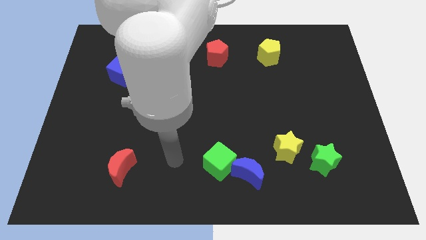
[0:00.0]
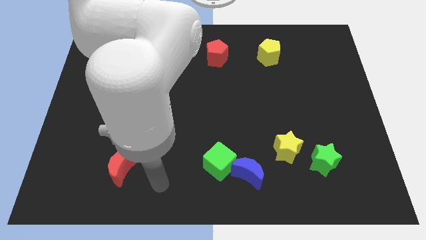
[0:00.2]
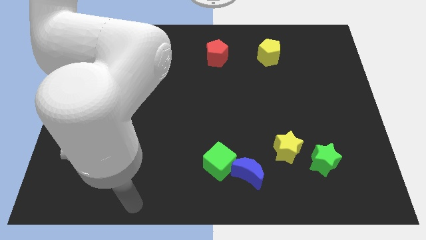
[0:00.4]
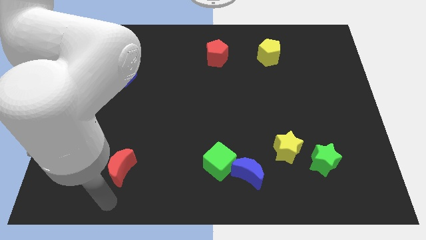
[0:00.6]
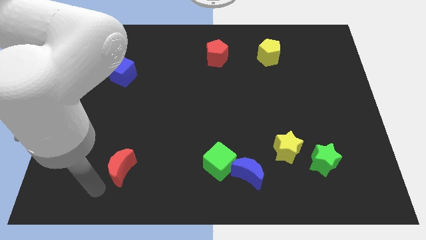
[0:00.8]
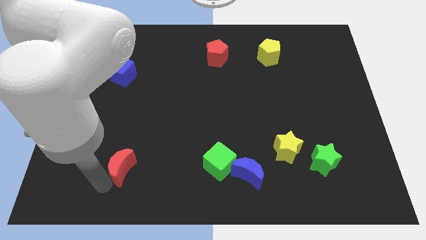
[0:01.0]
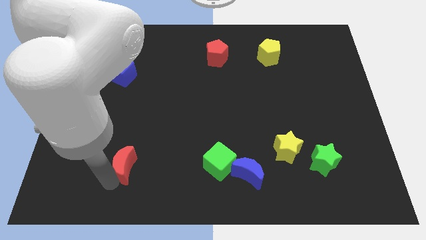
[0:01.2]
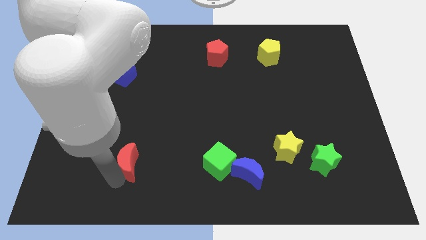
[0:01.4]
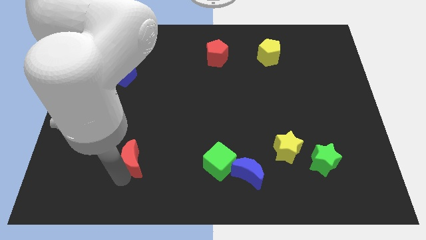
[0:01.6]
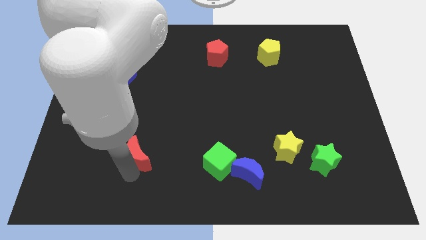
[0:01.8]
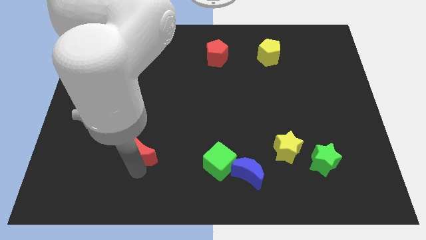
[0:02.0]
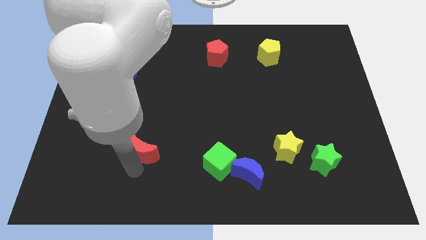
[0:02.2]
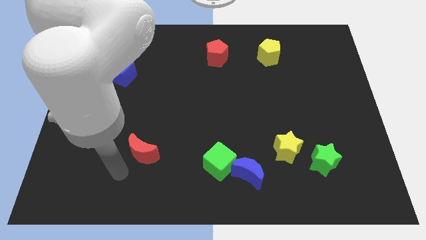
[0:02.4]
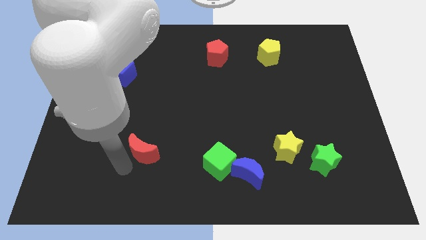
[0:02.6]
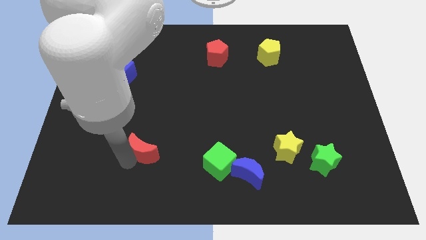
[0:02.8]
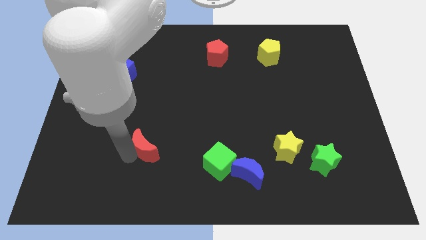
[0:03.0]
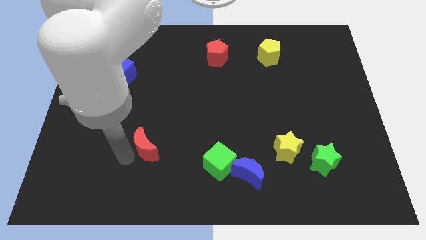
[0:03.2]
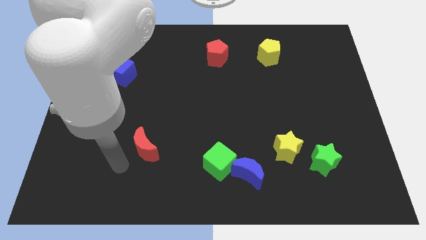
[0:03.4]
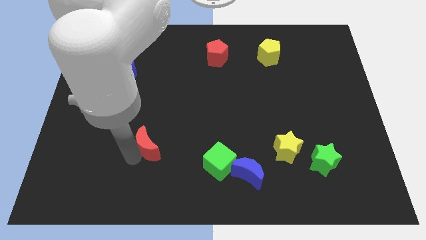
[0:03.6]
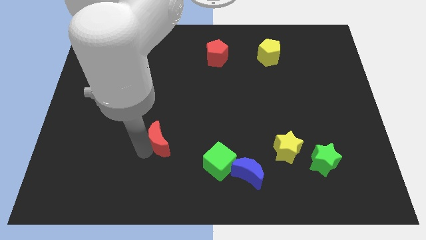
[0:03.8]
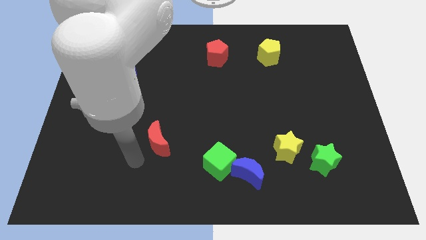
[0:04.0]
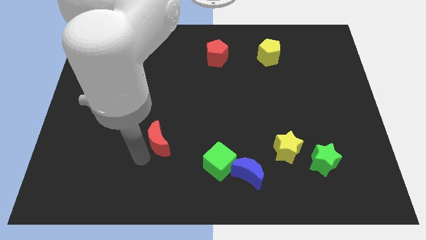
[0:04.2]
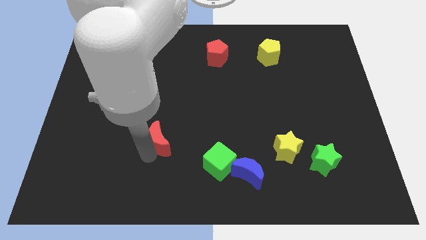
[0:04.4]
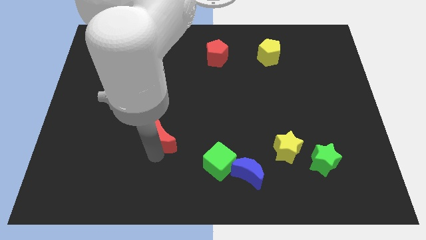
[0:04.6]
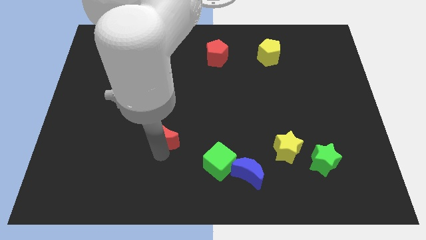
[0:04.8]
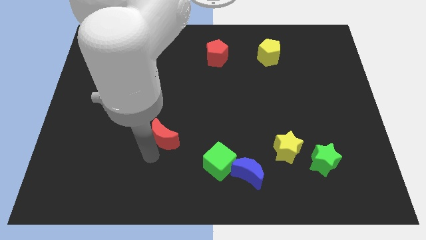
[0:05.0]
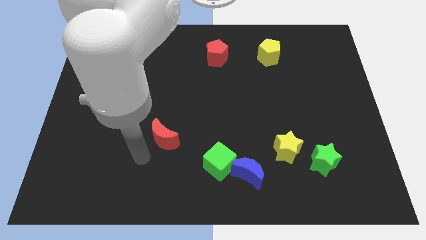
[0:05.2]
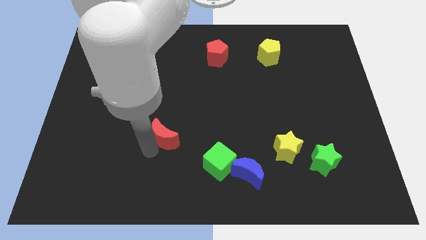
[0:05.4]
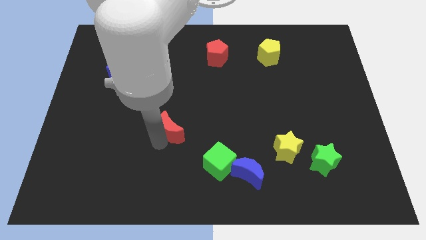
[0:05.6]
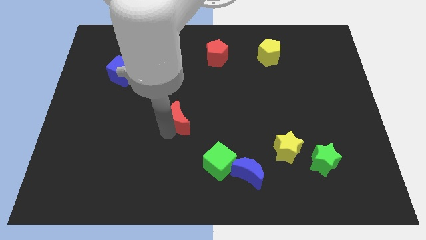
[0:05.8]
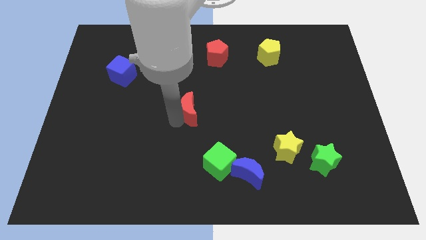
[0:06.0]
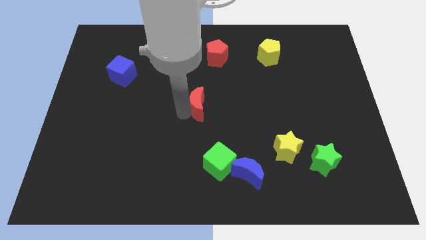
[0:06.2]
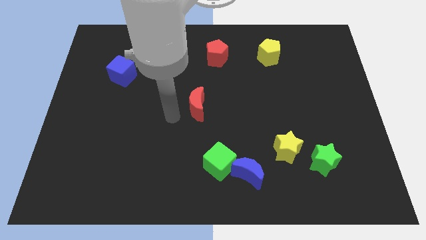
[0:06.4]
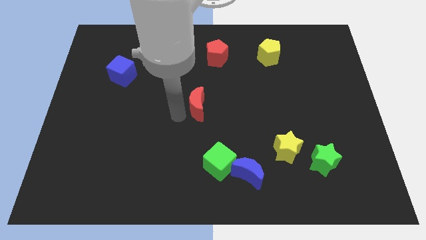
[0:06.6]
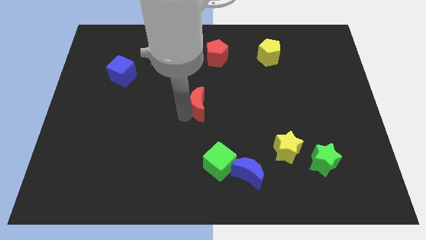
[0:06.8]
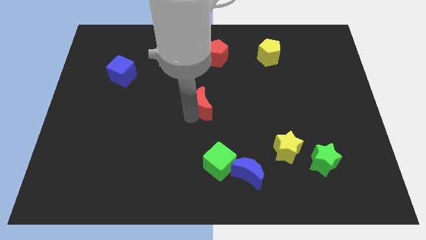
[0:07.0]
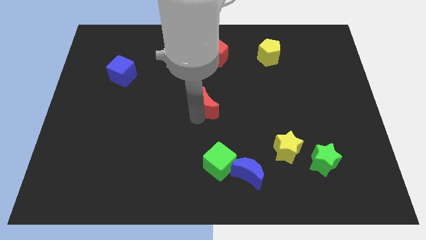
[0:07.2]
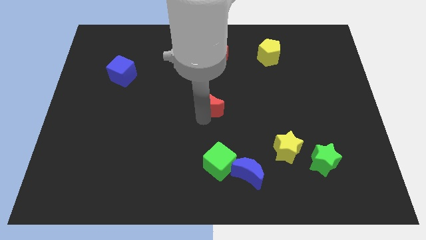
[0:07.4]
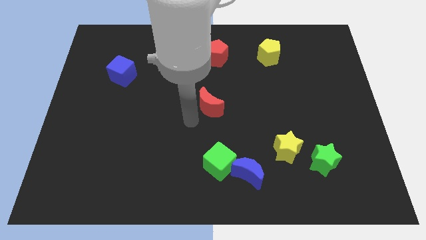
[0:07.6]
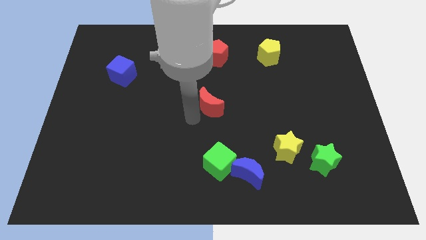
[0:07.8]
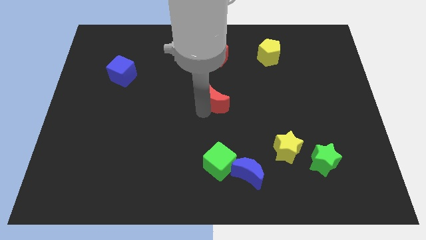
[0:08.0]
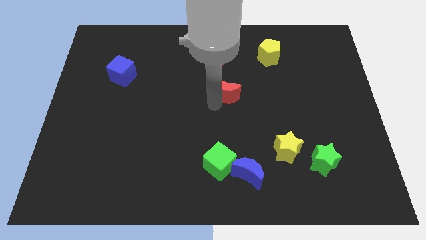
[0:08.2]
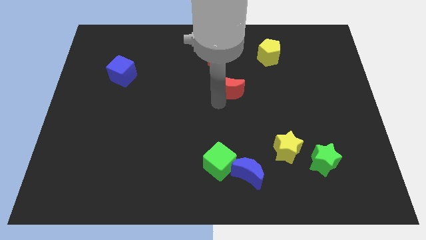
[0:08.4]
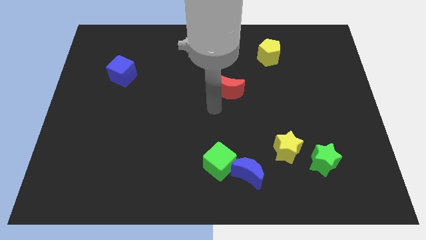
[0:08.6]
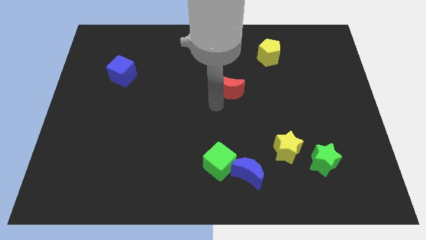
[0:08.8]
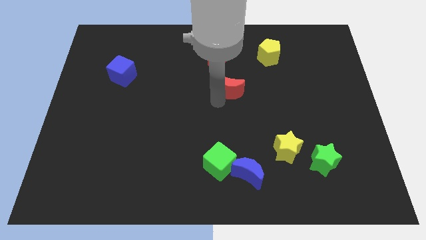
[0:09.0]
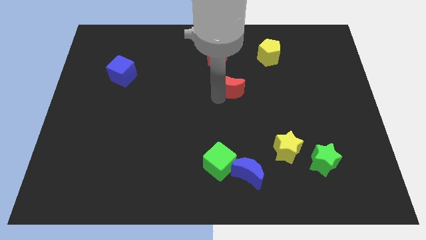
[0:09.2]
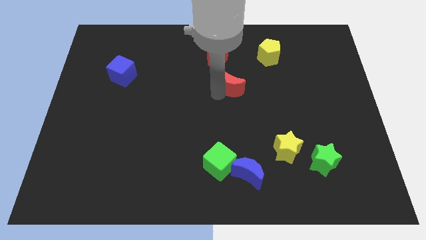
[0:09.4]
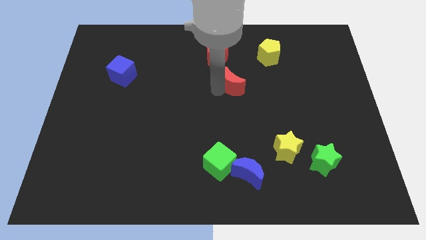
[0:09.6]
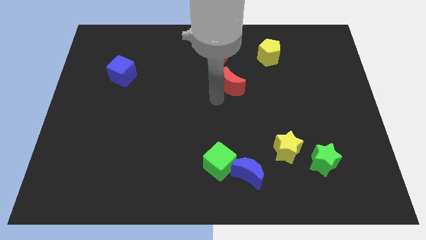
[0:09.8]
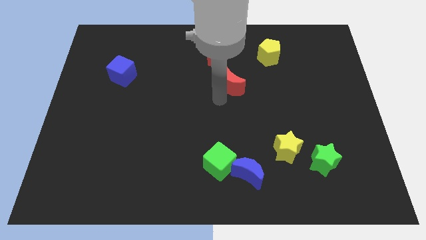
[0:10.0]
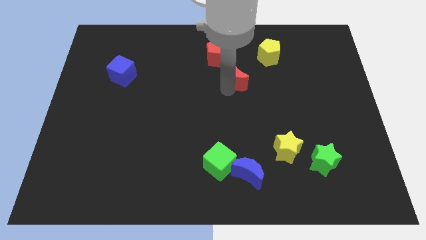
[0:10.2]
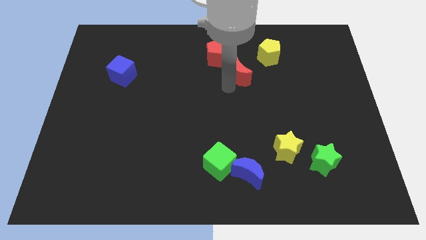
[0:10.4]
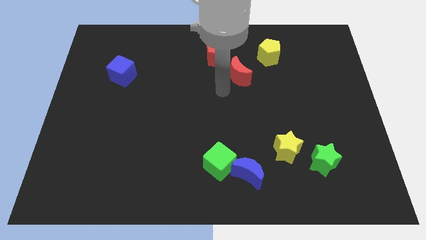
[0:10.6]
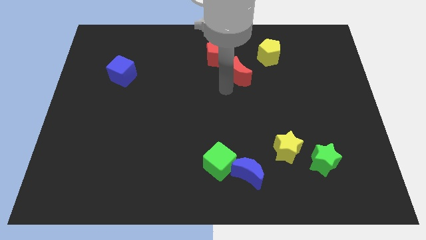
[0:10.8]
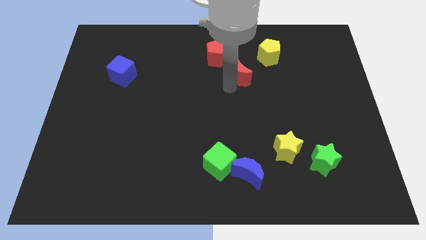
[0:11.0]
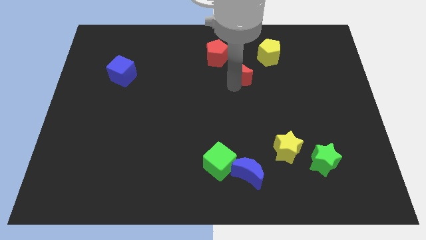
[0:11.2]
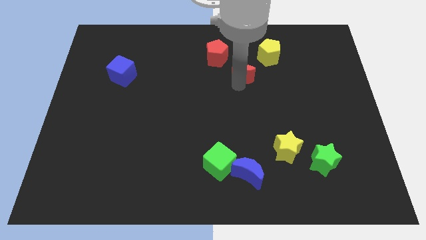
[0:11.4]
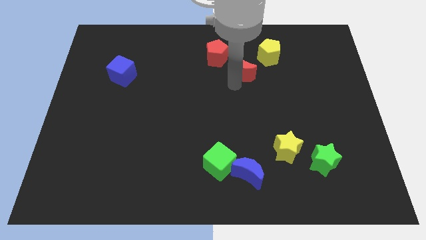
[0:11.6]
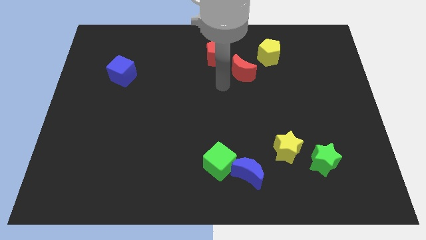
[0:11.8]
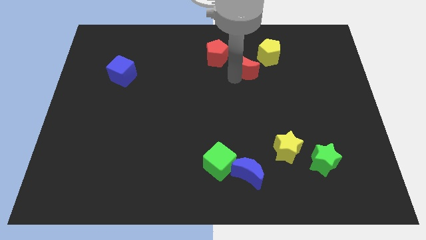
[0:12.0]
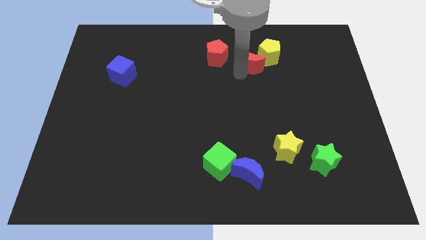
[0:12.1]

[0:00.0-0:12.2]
push the red moon to the yellow pentagon

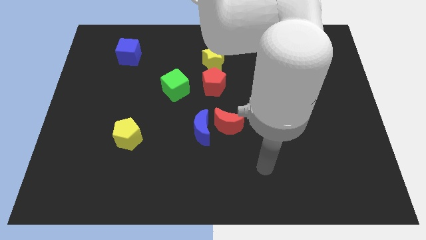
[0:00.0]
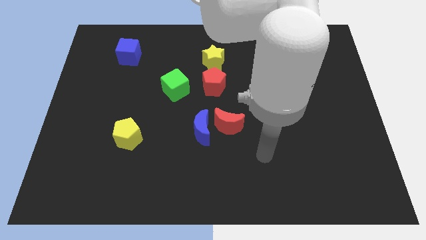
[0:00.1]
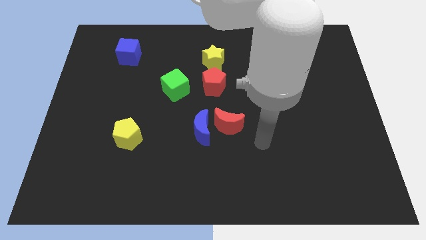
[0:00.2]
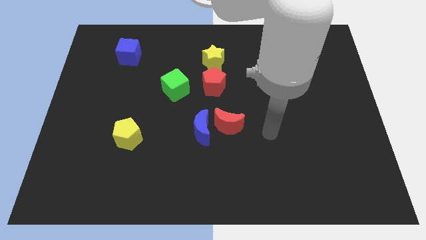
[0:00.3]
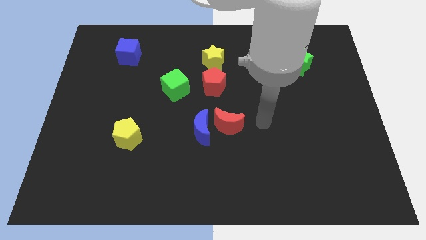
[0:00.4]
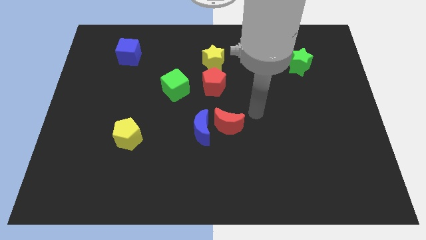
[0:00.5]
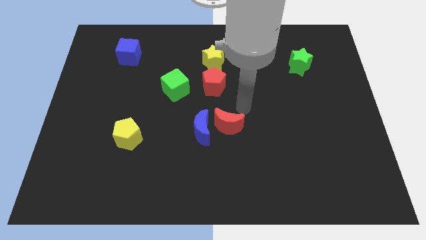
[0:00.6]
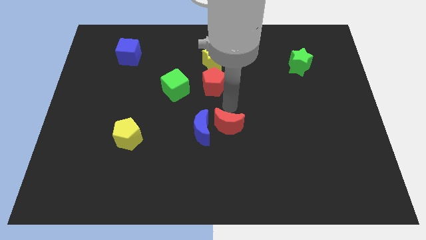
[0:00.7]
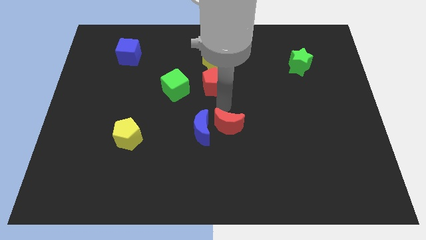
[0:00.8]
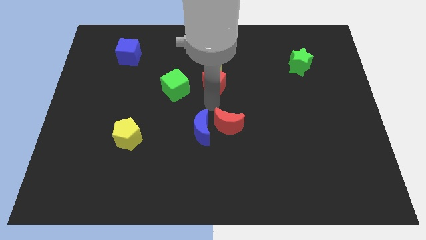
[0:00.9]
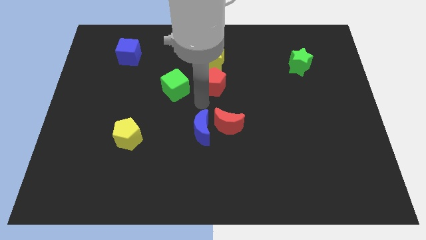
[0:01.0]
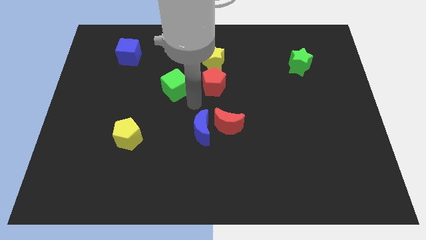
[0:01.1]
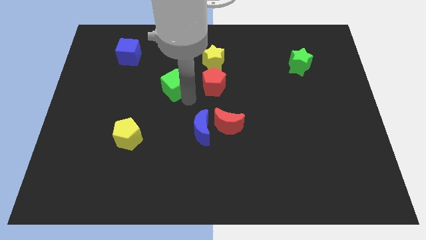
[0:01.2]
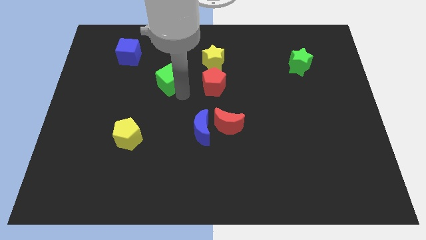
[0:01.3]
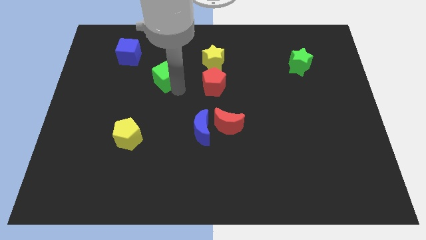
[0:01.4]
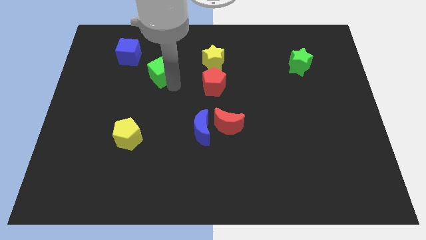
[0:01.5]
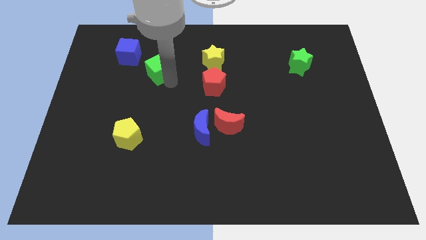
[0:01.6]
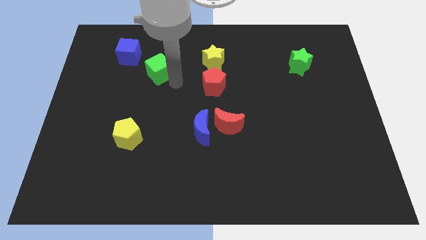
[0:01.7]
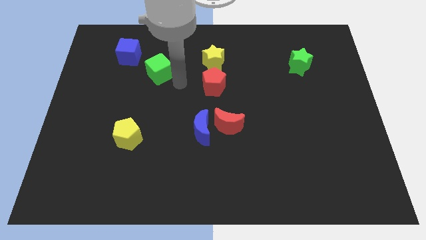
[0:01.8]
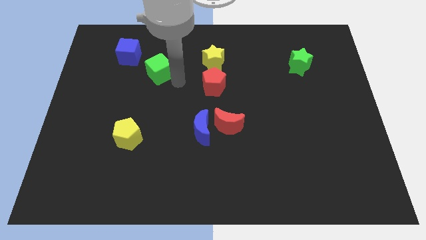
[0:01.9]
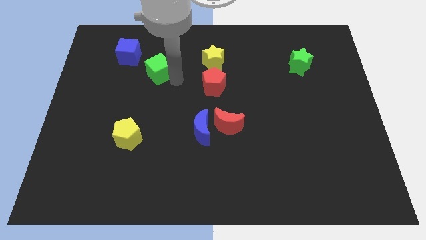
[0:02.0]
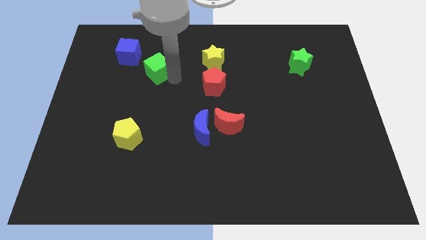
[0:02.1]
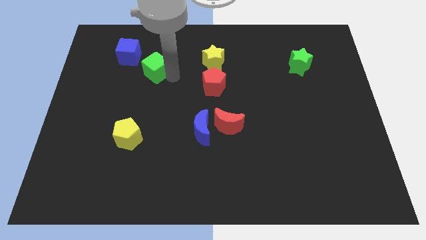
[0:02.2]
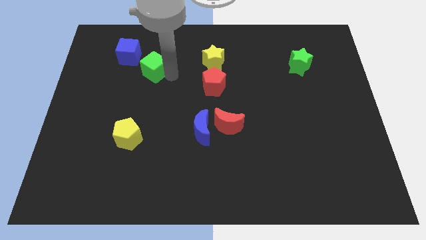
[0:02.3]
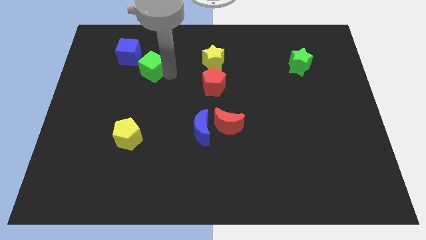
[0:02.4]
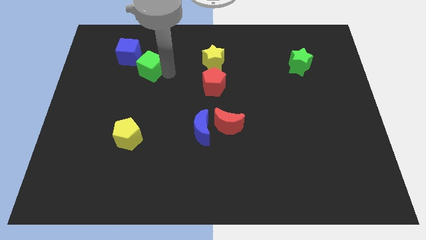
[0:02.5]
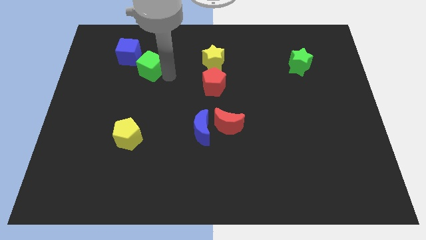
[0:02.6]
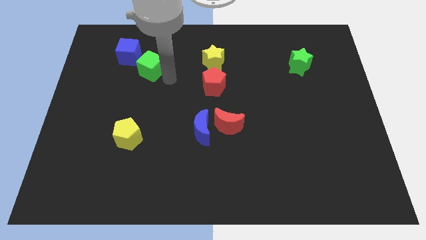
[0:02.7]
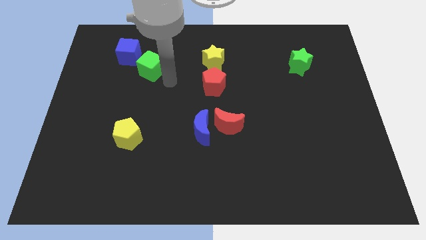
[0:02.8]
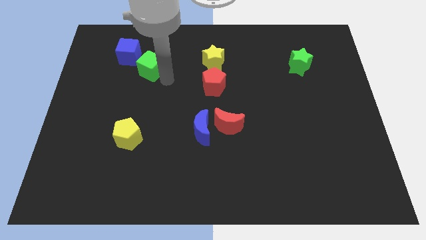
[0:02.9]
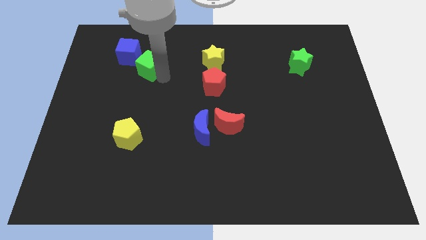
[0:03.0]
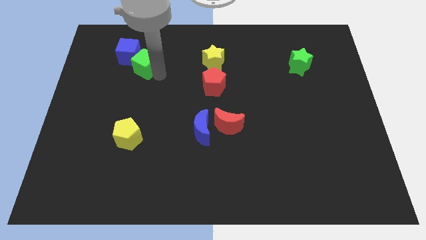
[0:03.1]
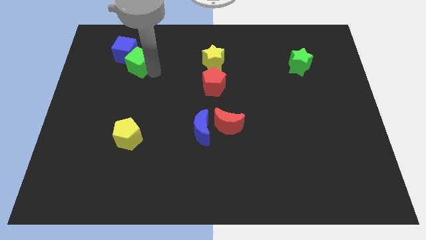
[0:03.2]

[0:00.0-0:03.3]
push the green cube towards the blue cube
